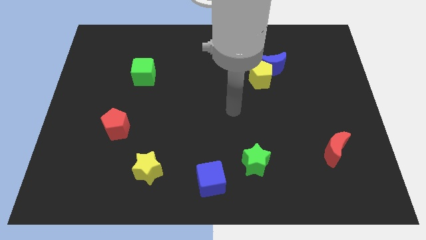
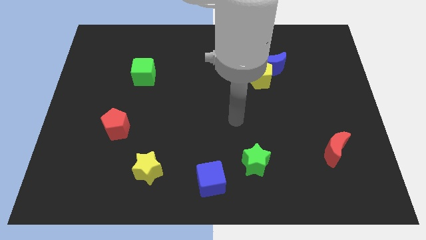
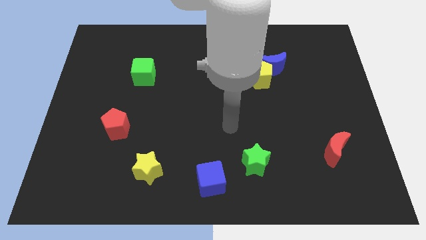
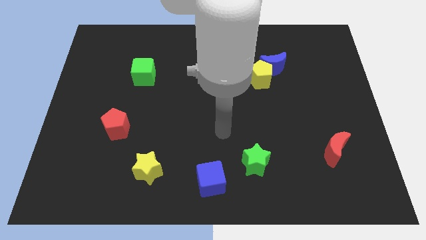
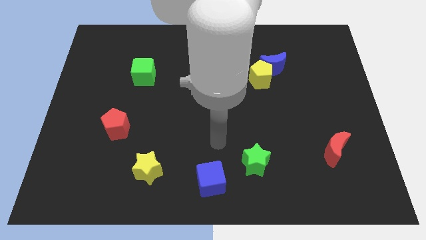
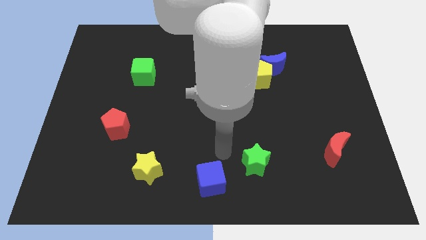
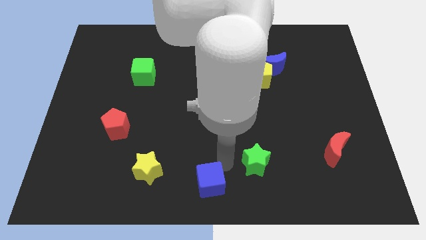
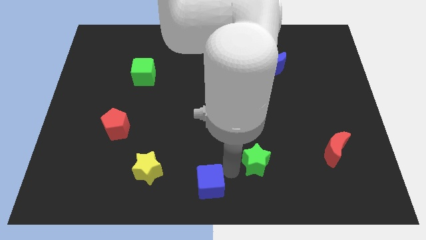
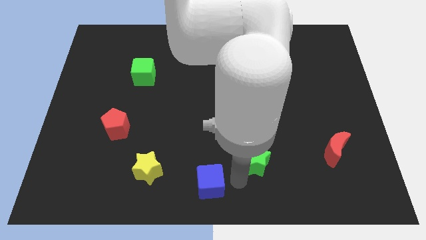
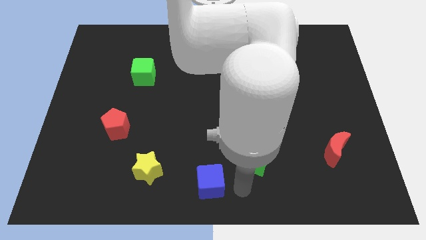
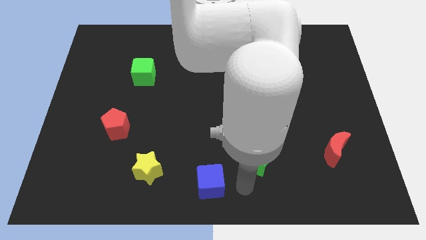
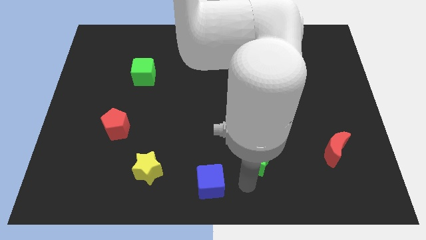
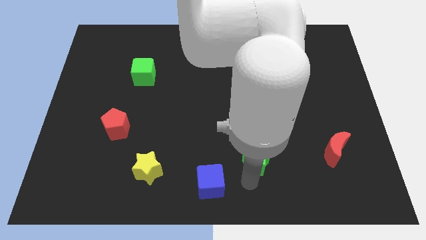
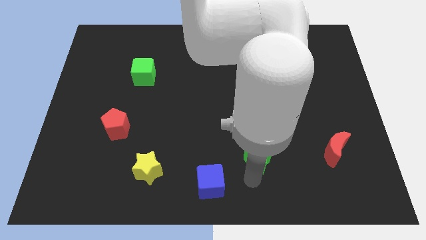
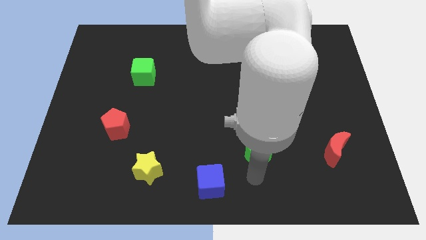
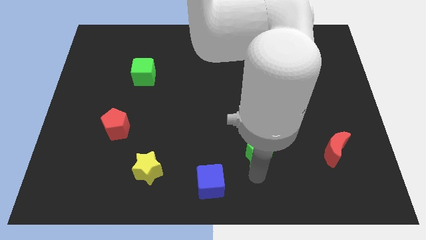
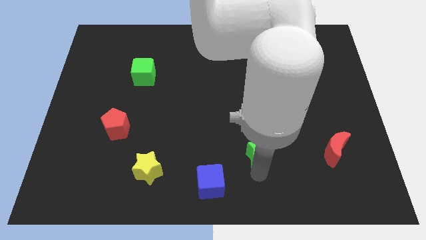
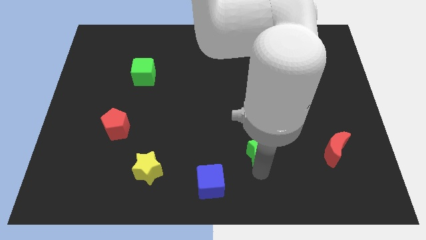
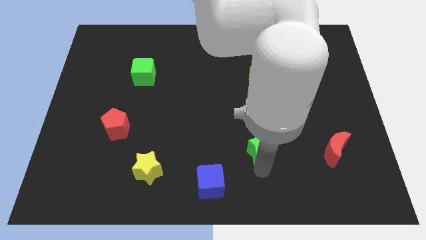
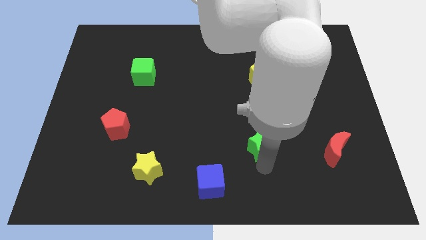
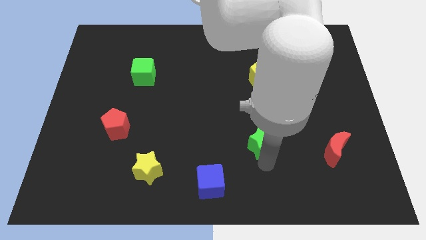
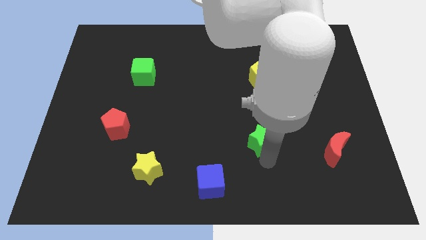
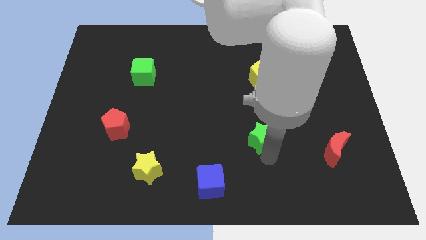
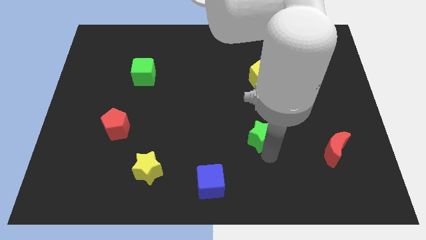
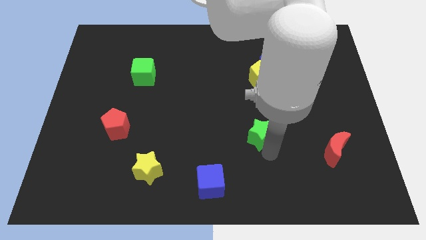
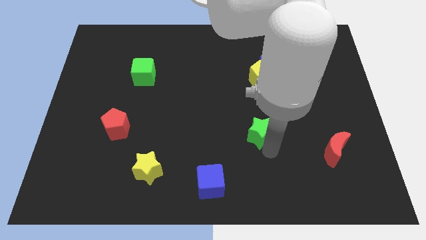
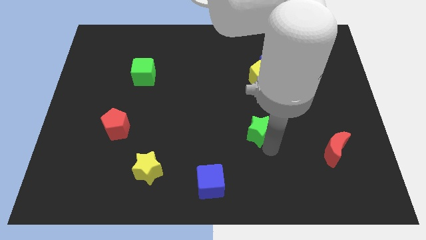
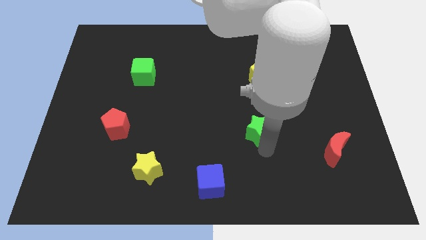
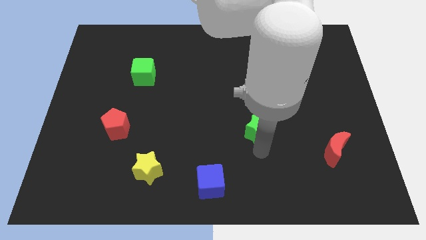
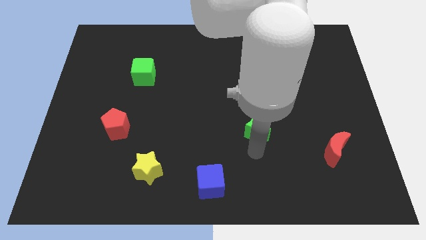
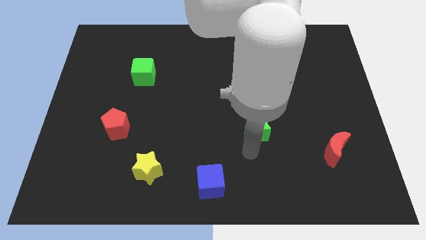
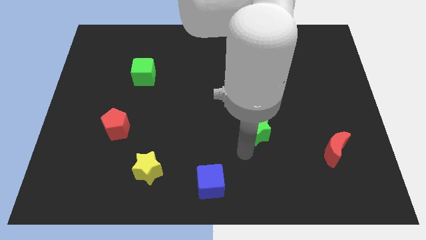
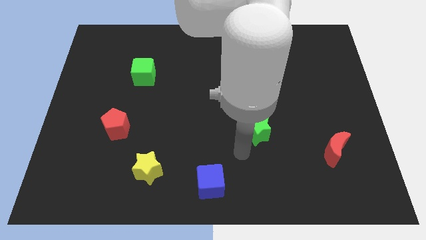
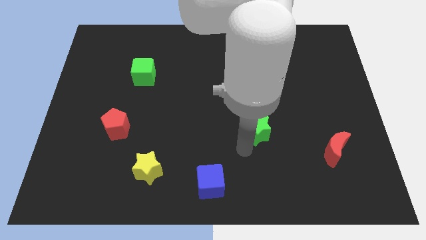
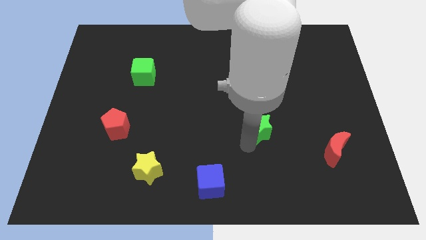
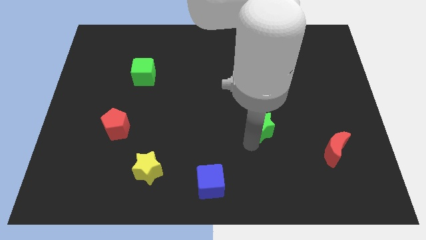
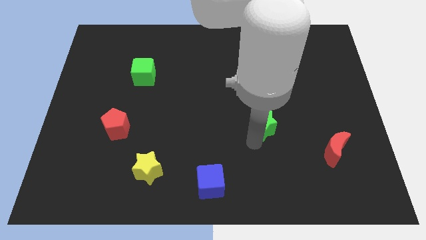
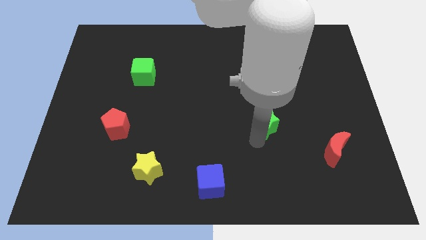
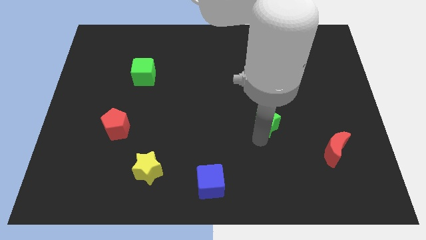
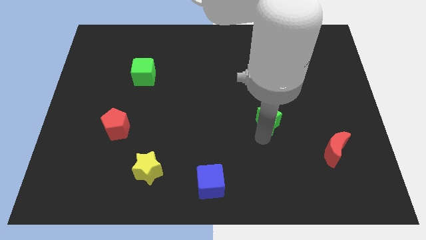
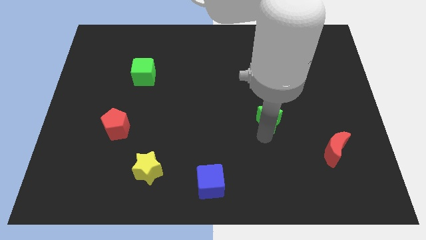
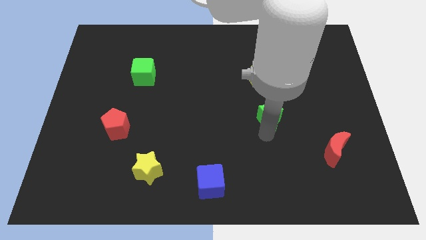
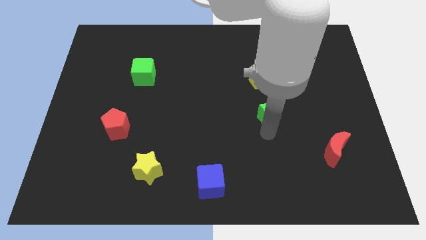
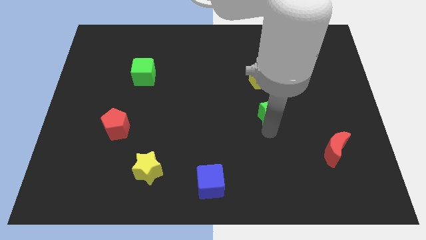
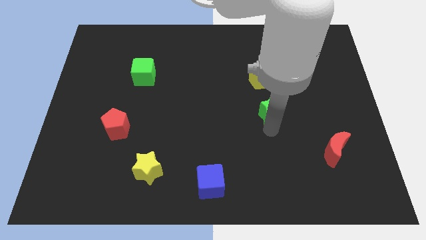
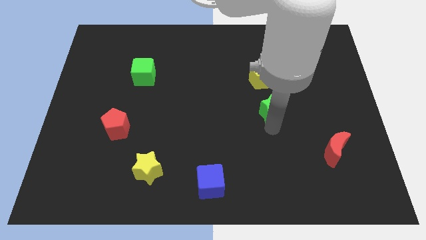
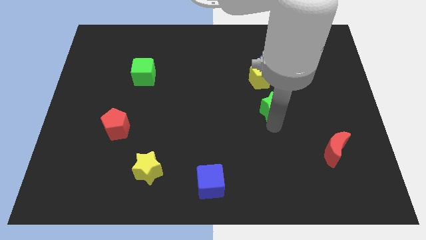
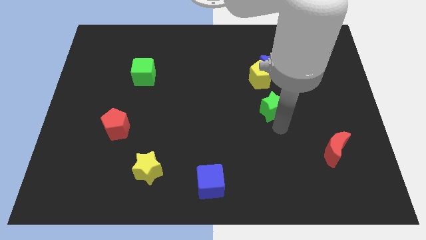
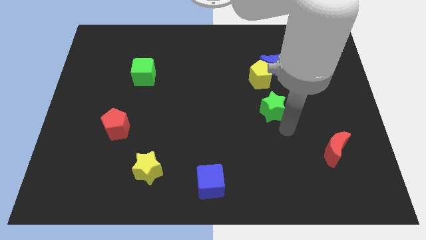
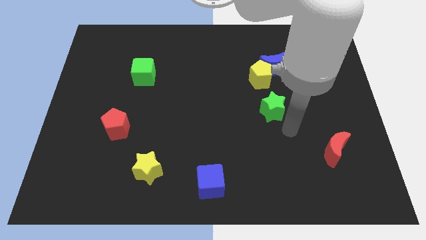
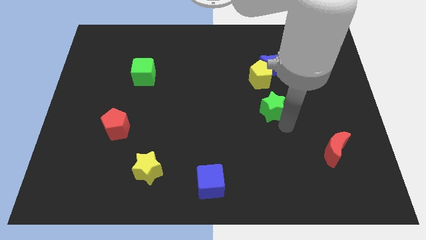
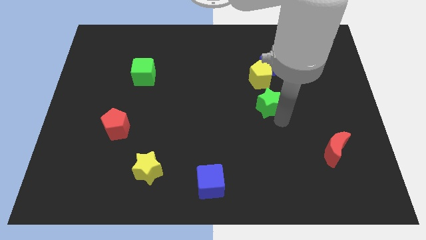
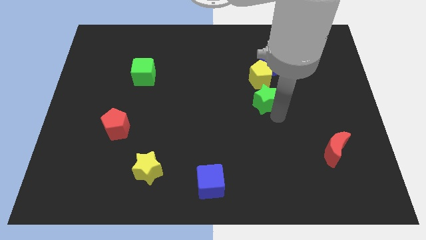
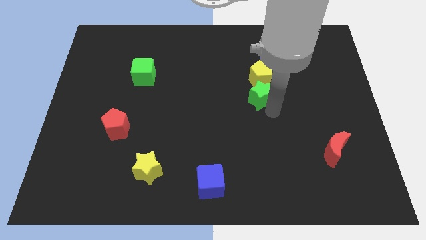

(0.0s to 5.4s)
put the green star next to the yellow pentagon

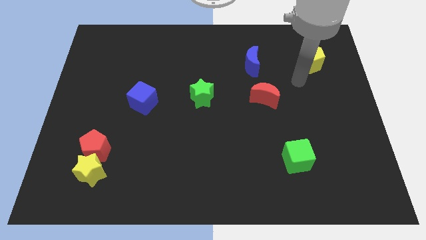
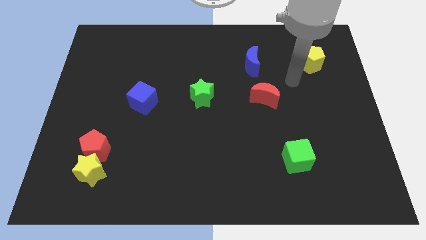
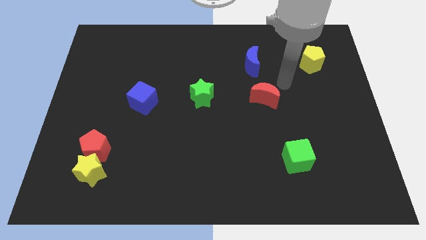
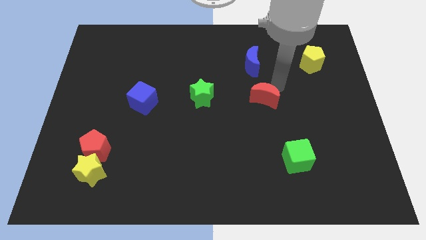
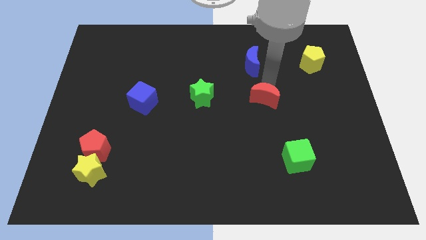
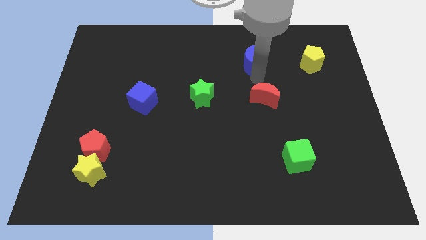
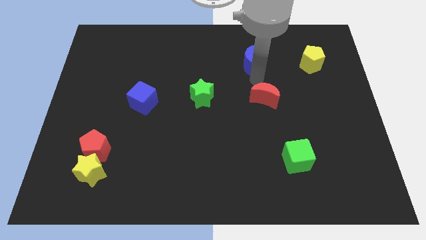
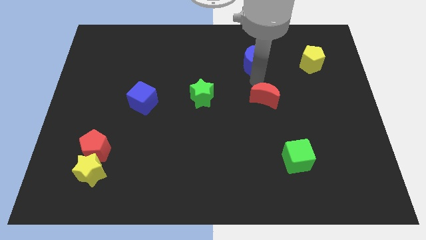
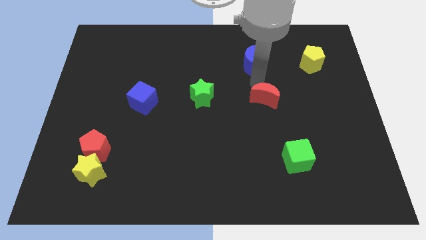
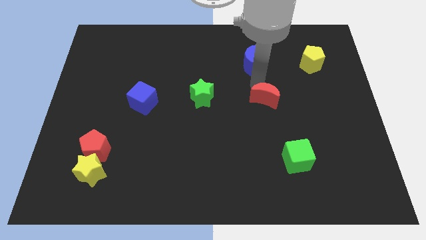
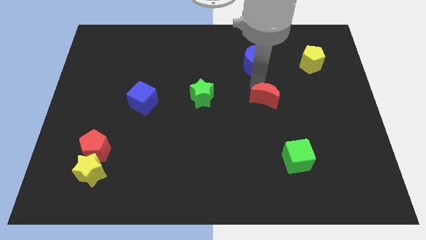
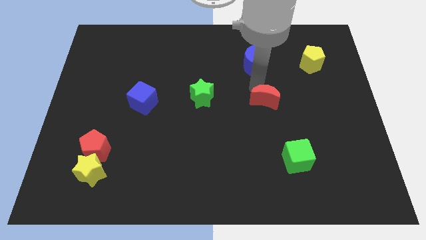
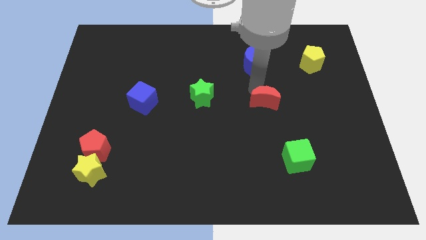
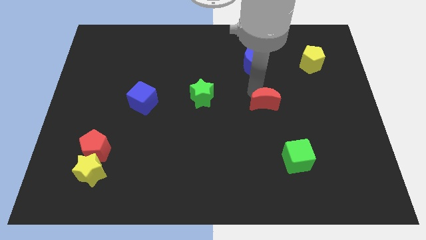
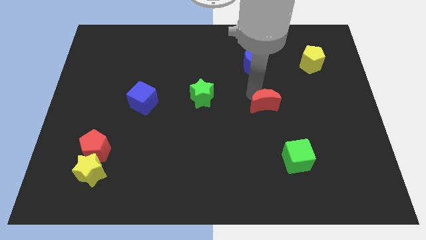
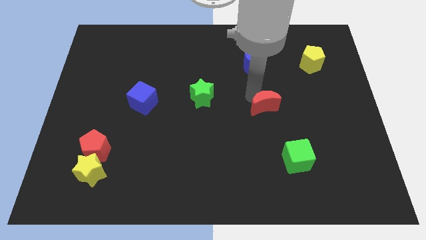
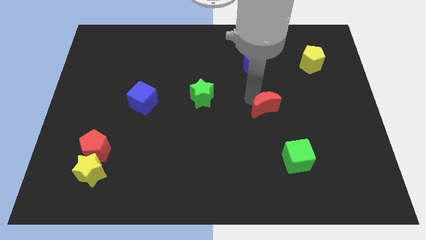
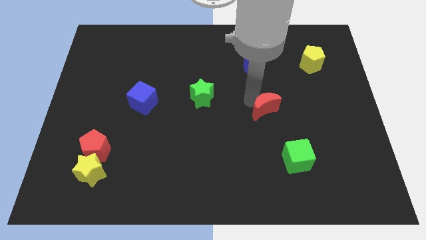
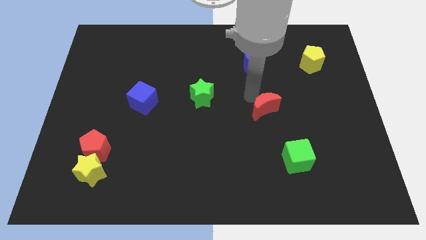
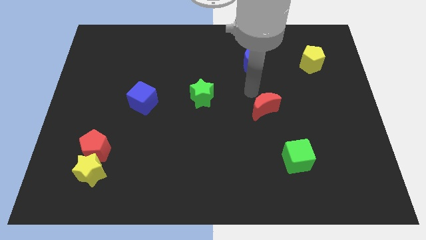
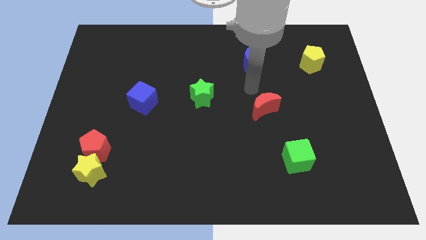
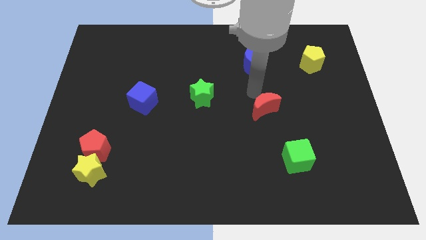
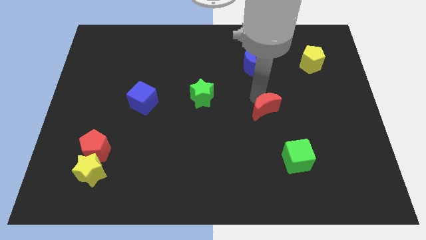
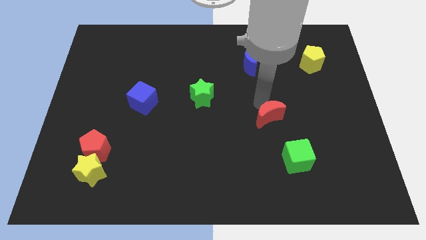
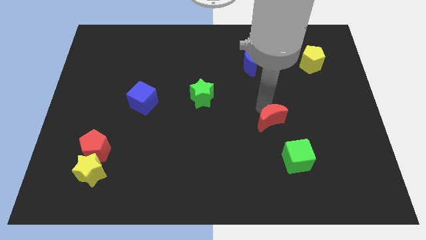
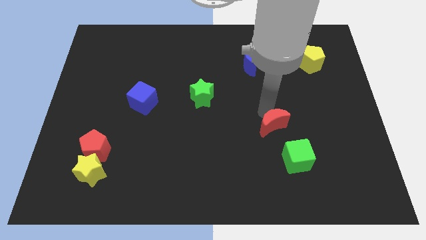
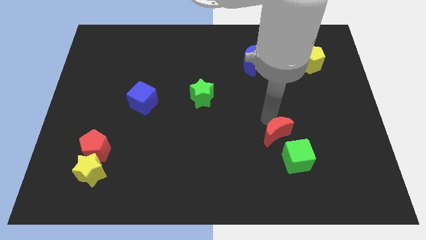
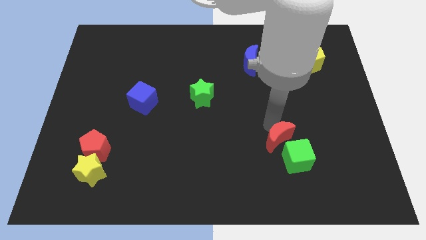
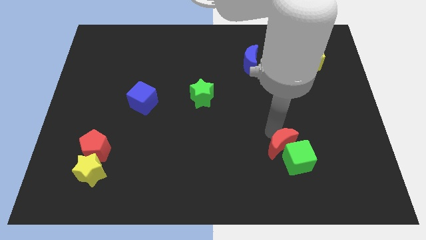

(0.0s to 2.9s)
slide the red moon to the green cube
